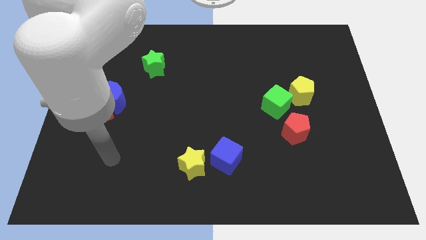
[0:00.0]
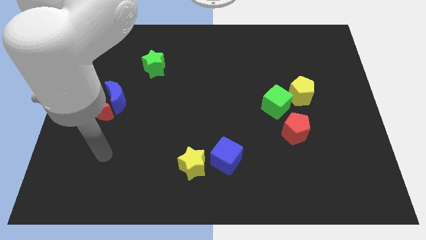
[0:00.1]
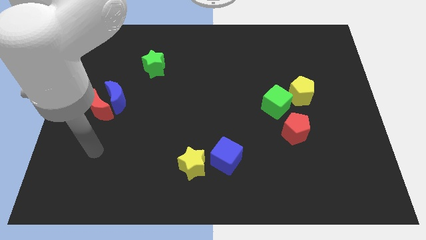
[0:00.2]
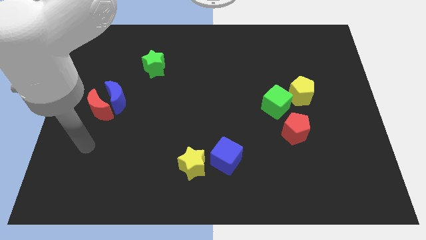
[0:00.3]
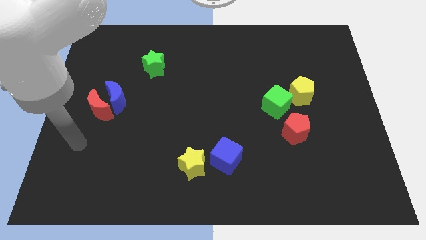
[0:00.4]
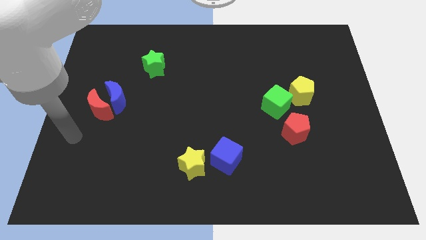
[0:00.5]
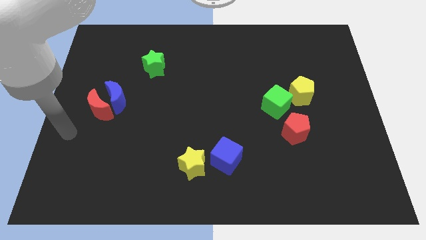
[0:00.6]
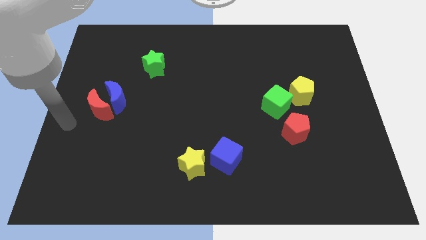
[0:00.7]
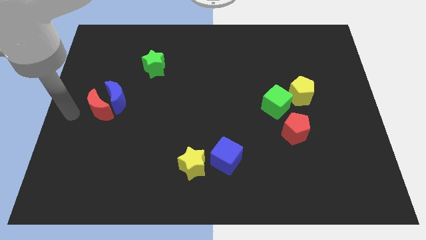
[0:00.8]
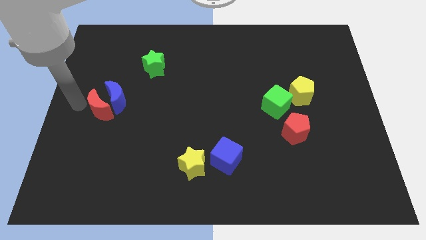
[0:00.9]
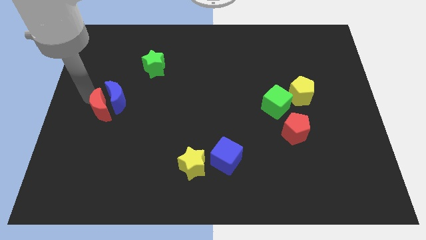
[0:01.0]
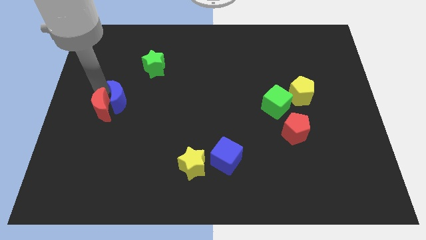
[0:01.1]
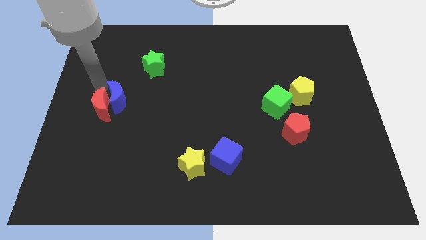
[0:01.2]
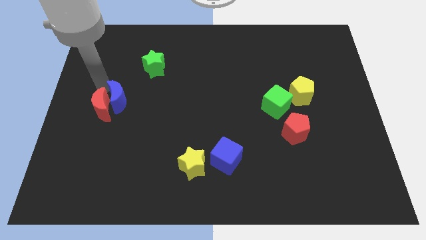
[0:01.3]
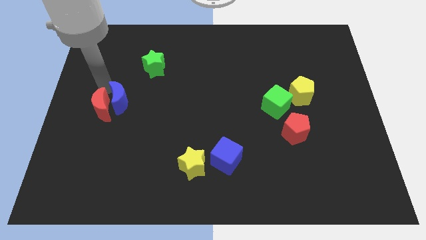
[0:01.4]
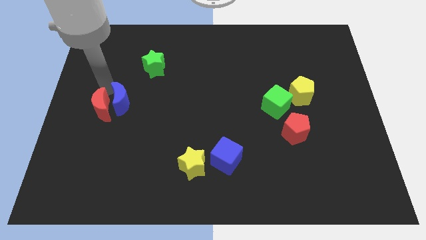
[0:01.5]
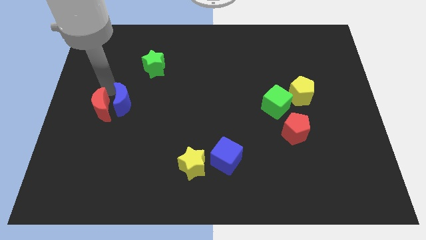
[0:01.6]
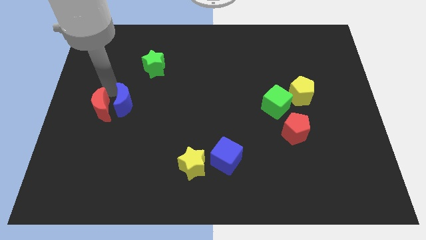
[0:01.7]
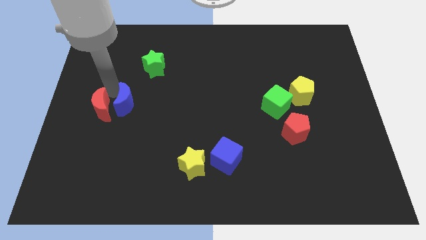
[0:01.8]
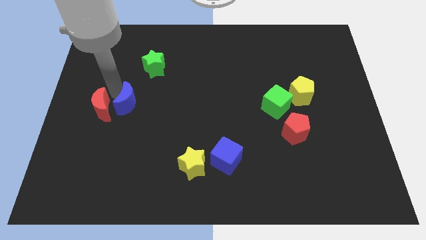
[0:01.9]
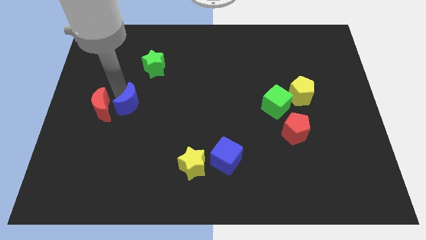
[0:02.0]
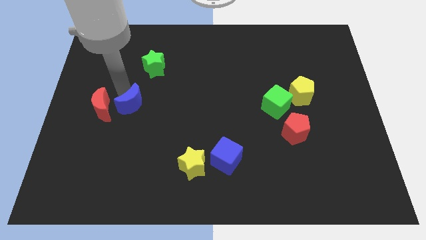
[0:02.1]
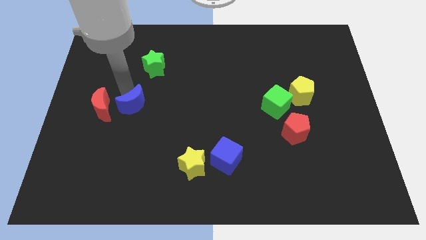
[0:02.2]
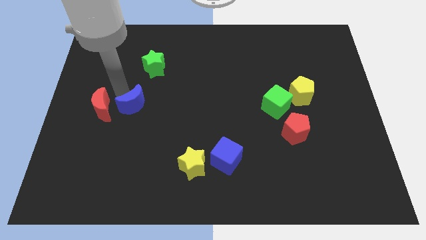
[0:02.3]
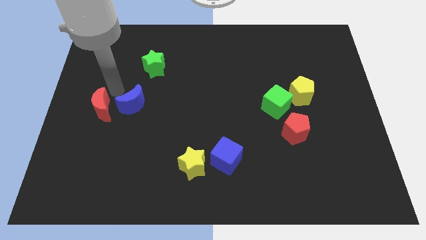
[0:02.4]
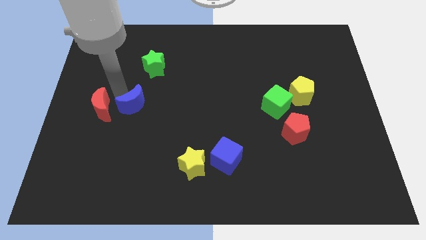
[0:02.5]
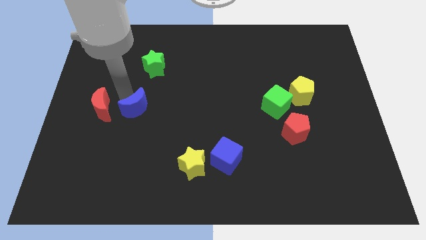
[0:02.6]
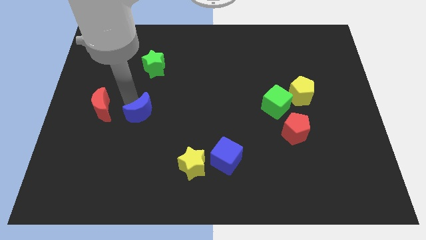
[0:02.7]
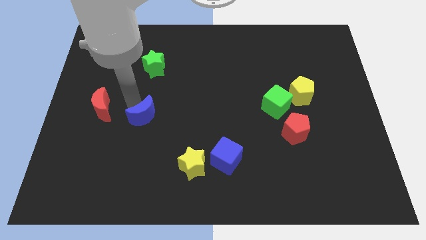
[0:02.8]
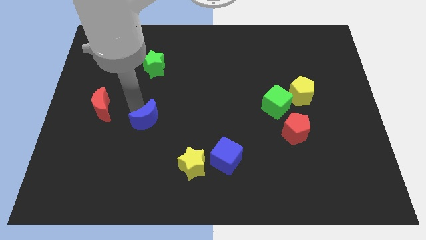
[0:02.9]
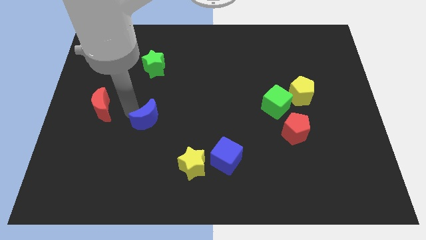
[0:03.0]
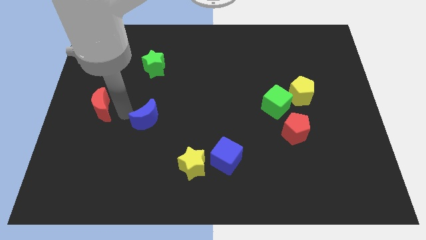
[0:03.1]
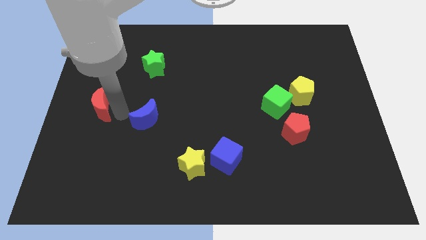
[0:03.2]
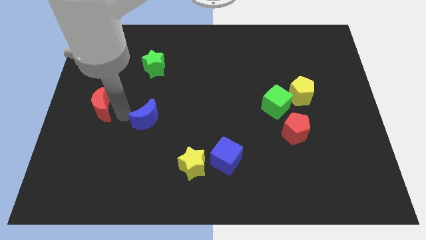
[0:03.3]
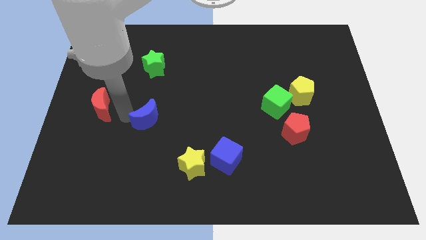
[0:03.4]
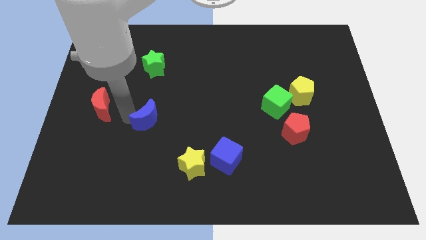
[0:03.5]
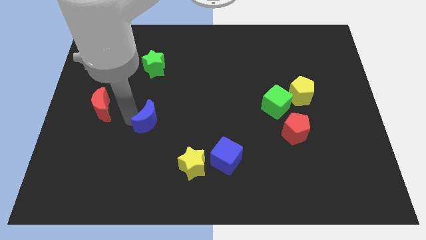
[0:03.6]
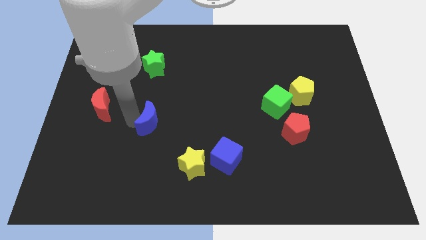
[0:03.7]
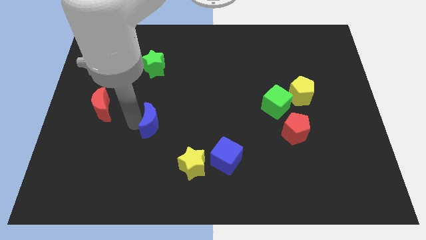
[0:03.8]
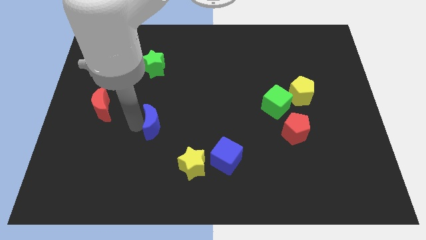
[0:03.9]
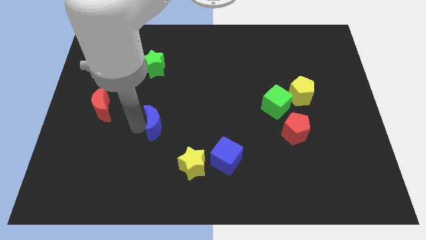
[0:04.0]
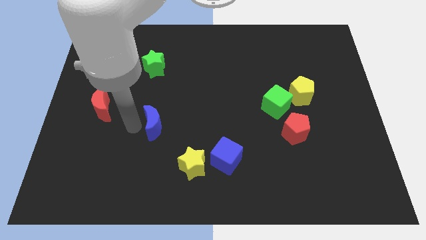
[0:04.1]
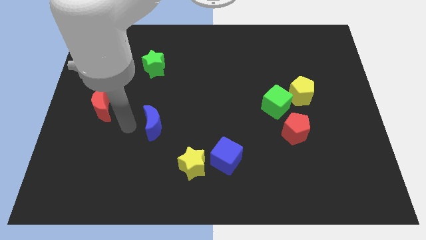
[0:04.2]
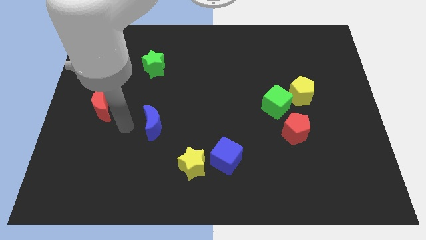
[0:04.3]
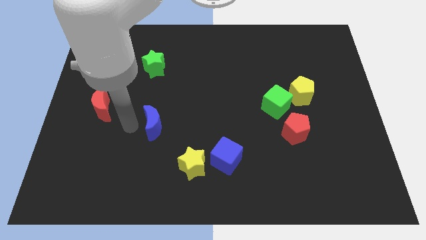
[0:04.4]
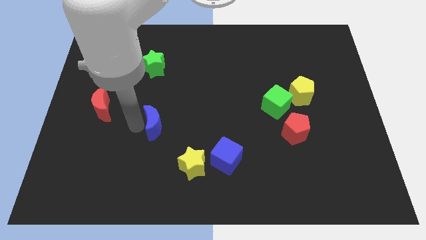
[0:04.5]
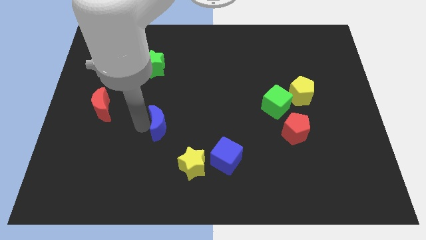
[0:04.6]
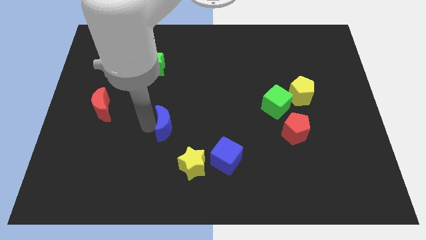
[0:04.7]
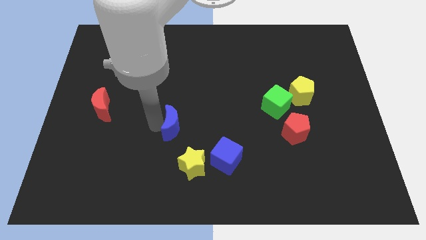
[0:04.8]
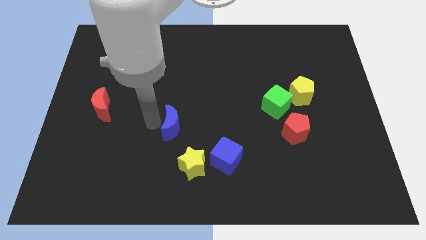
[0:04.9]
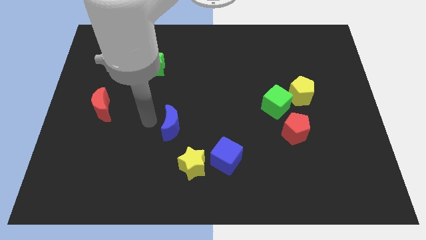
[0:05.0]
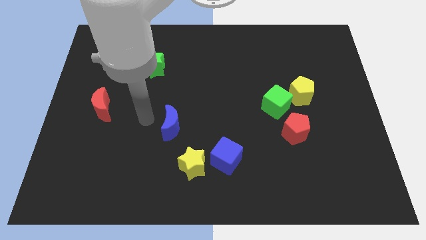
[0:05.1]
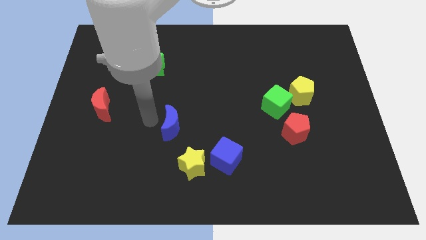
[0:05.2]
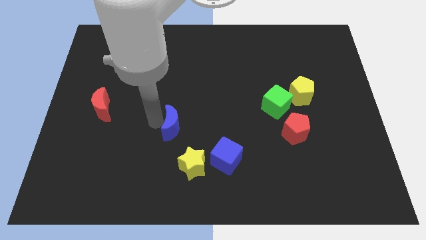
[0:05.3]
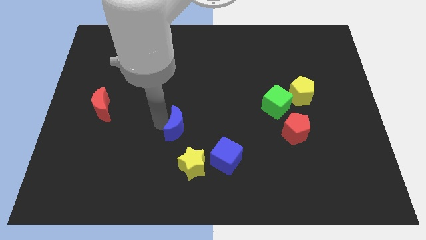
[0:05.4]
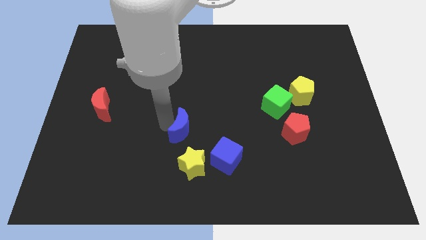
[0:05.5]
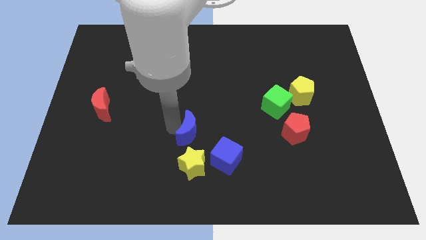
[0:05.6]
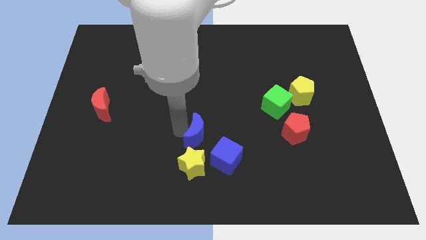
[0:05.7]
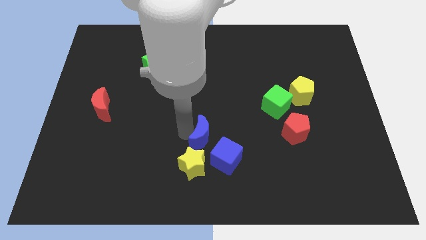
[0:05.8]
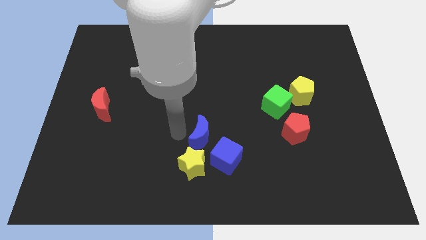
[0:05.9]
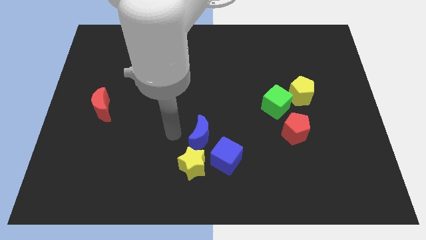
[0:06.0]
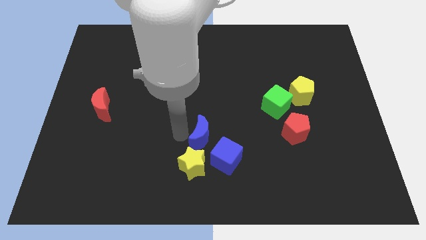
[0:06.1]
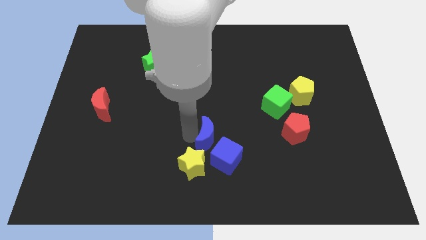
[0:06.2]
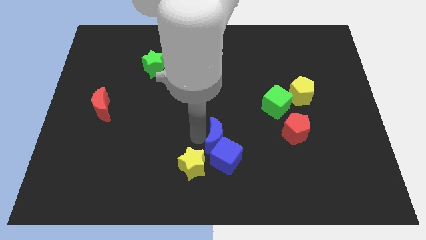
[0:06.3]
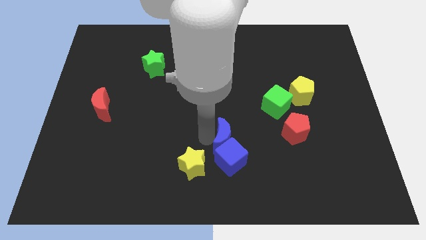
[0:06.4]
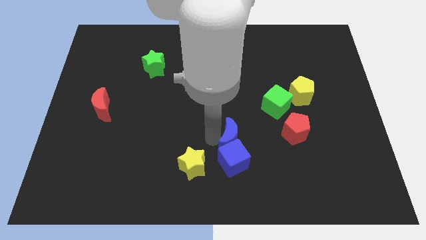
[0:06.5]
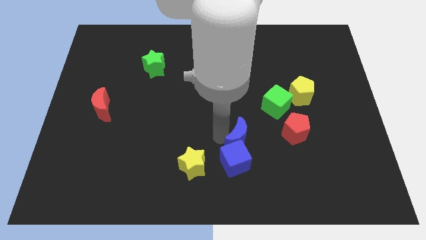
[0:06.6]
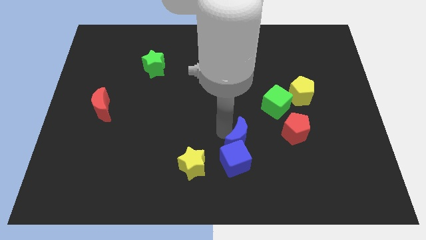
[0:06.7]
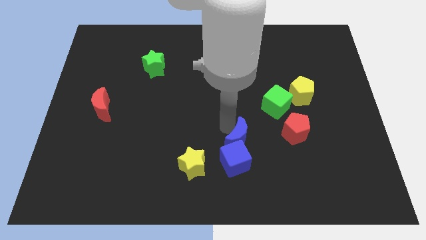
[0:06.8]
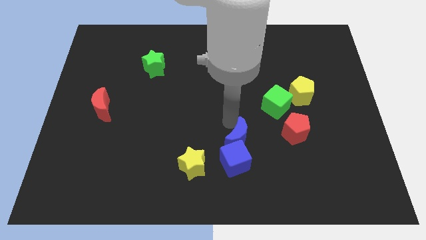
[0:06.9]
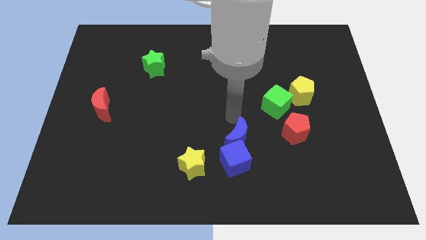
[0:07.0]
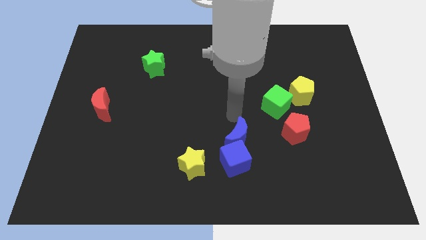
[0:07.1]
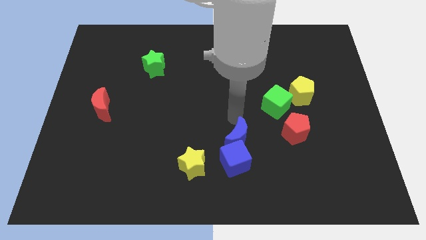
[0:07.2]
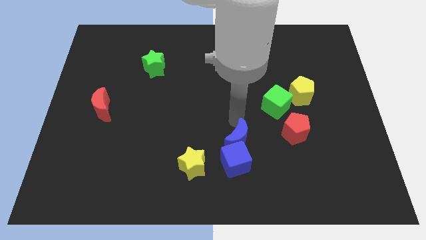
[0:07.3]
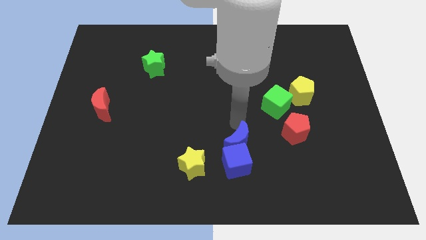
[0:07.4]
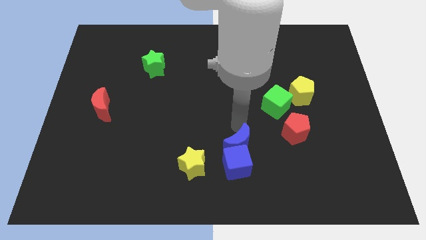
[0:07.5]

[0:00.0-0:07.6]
move the blue moon right of the yellow star

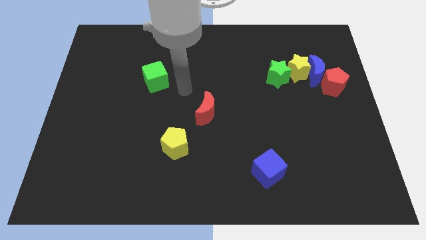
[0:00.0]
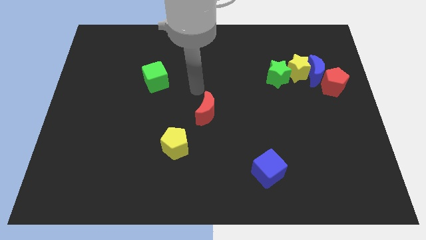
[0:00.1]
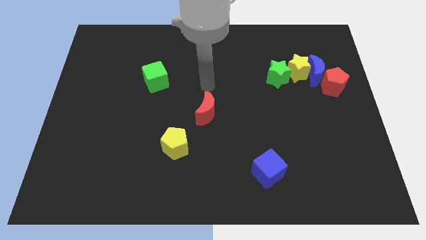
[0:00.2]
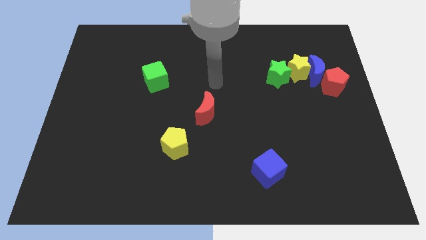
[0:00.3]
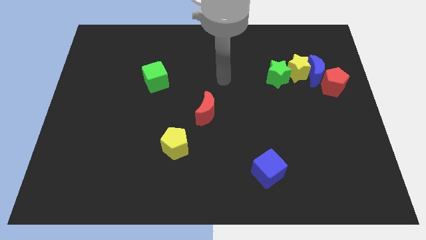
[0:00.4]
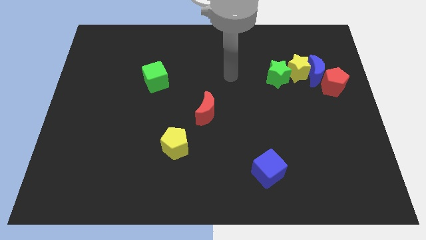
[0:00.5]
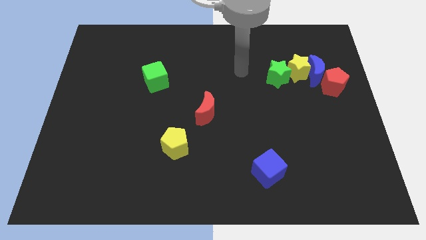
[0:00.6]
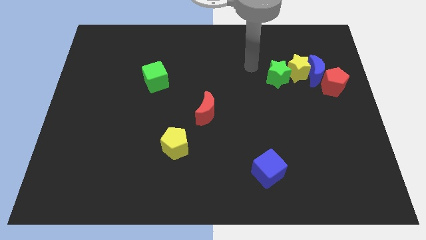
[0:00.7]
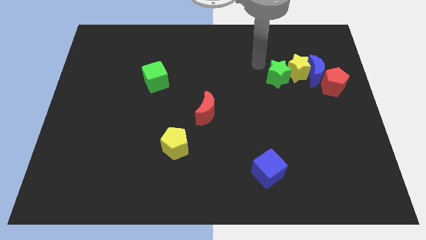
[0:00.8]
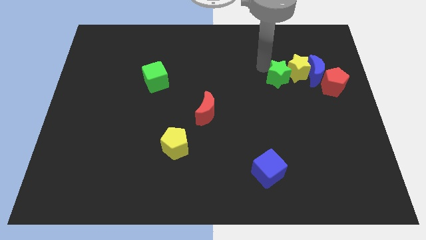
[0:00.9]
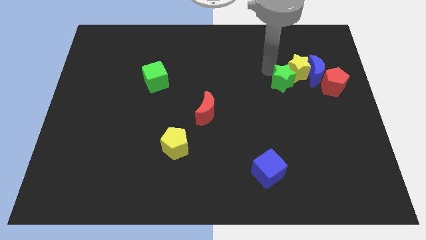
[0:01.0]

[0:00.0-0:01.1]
push the green star to the bottom left of the blue moon
